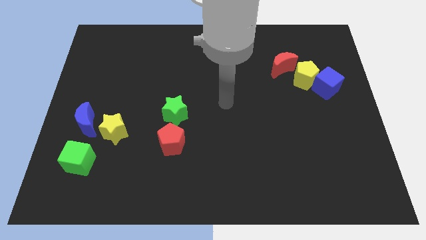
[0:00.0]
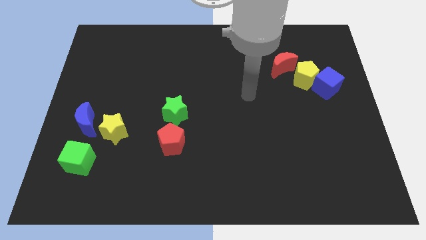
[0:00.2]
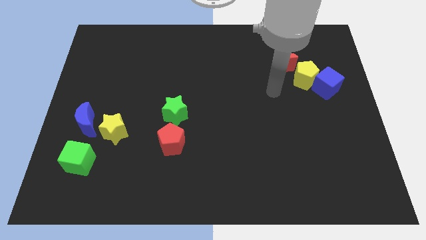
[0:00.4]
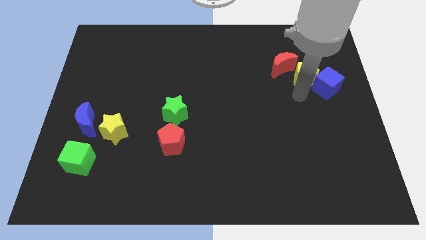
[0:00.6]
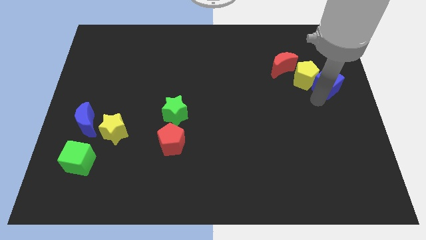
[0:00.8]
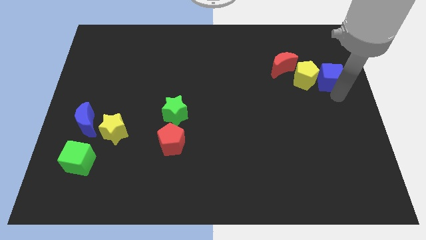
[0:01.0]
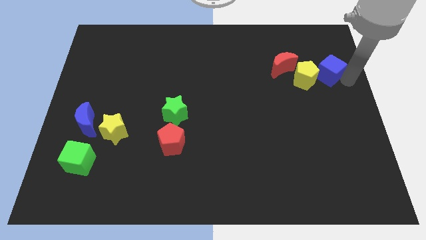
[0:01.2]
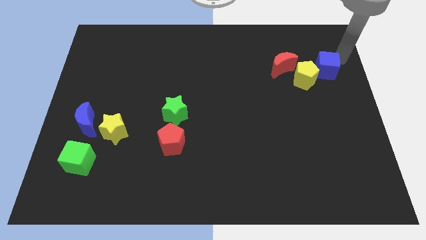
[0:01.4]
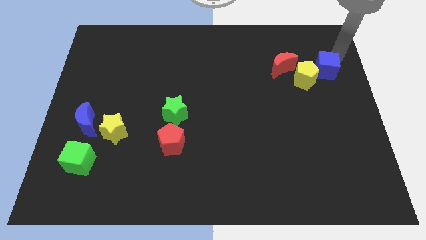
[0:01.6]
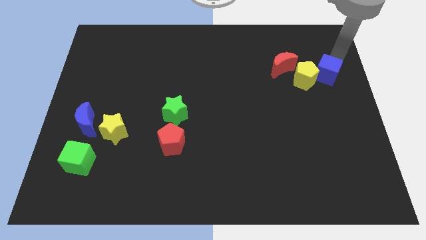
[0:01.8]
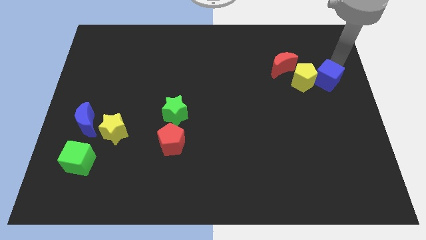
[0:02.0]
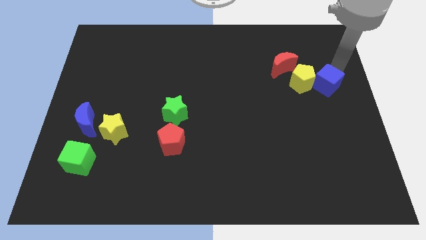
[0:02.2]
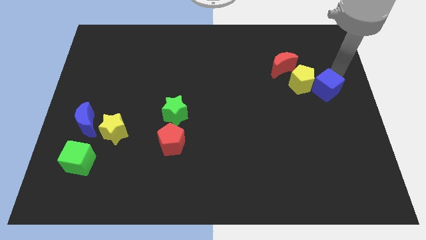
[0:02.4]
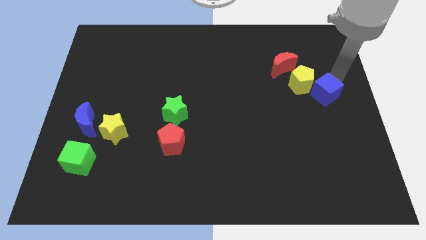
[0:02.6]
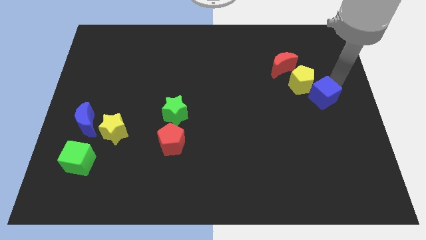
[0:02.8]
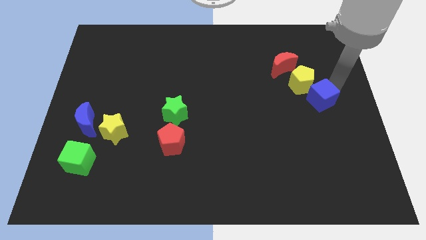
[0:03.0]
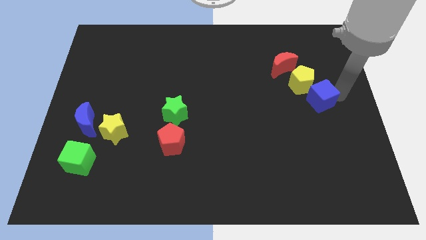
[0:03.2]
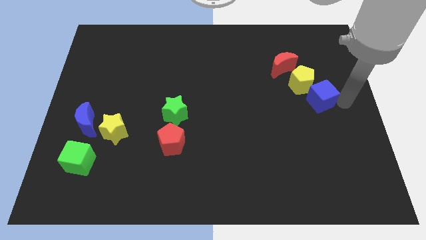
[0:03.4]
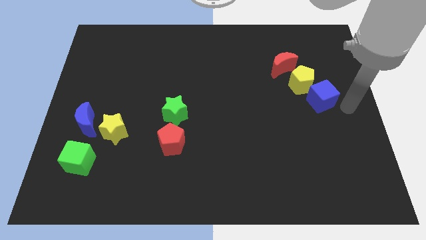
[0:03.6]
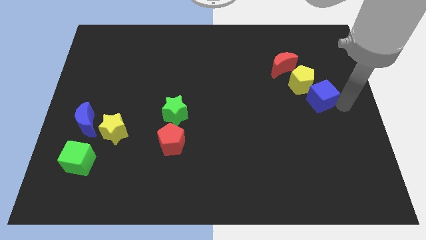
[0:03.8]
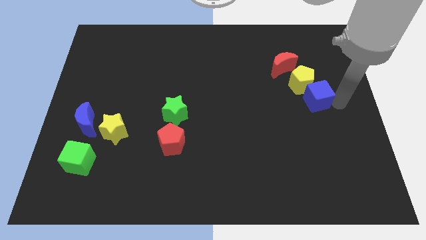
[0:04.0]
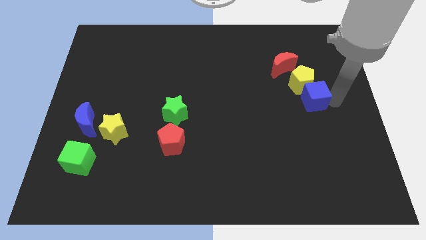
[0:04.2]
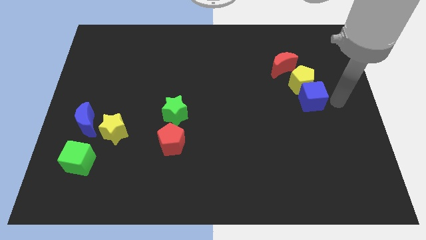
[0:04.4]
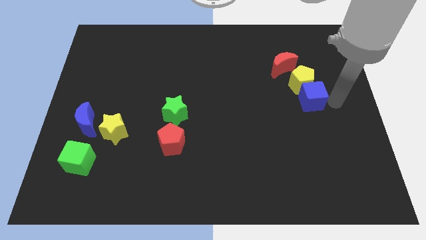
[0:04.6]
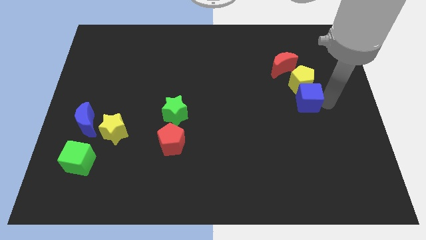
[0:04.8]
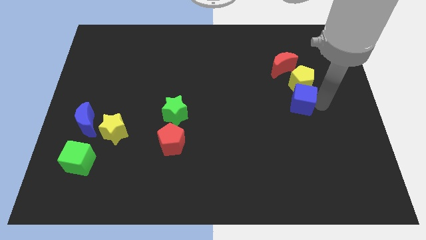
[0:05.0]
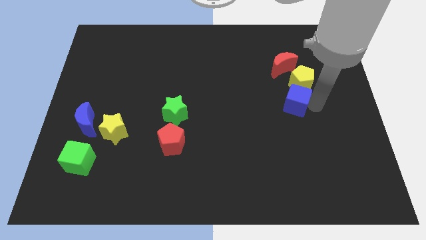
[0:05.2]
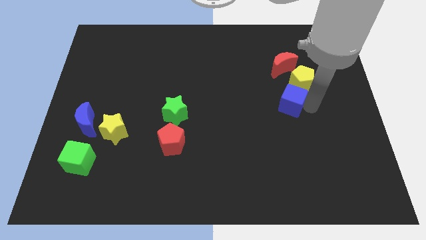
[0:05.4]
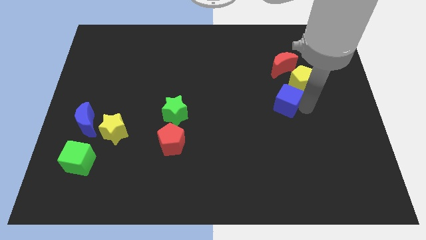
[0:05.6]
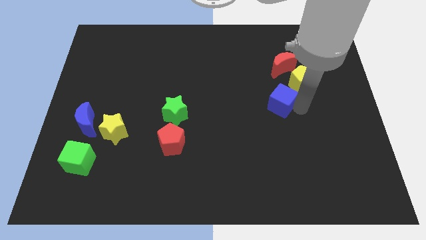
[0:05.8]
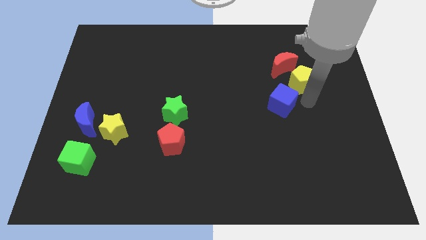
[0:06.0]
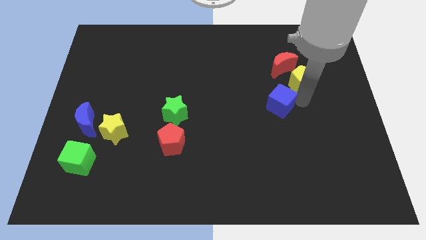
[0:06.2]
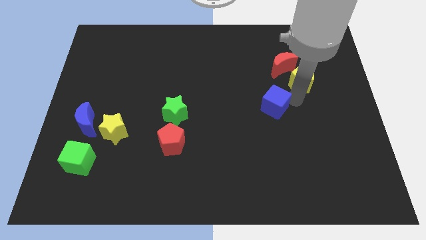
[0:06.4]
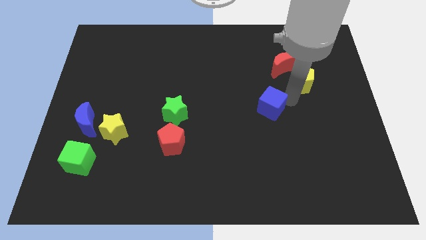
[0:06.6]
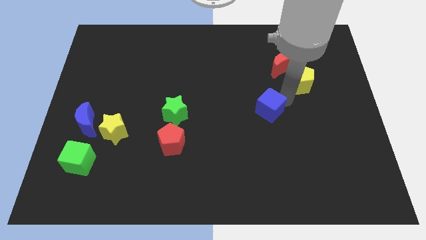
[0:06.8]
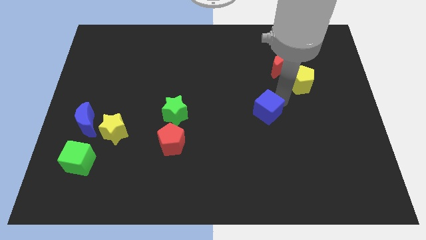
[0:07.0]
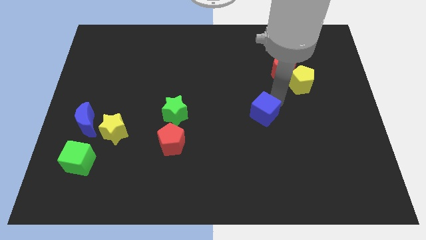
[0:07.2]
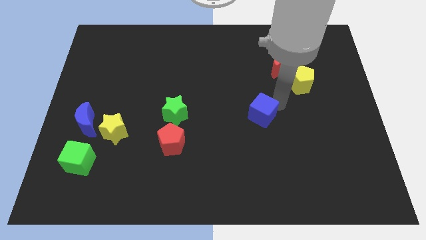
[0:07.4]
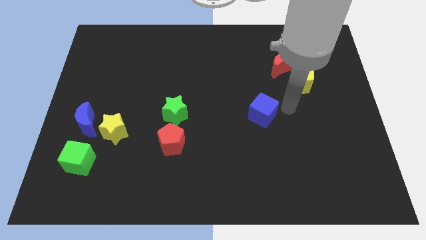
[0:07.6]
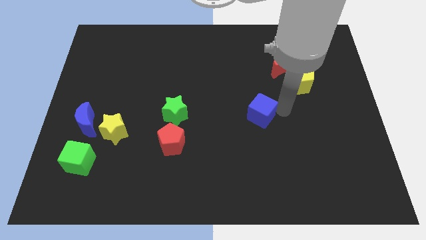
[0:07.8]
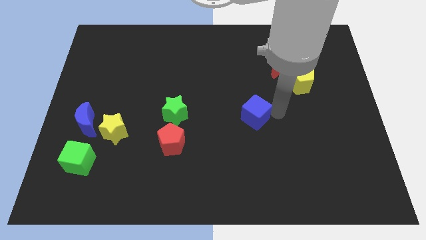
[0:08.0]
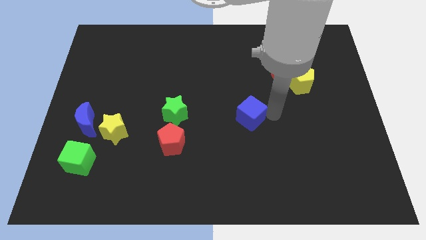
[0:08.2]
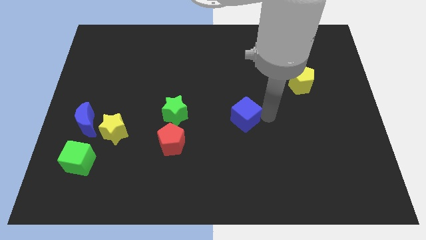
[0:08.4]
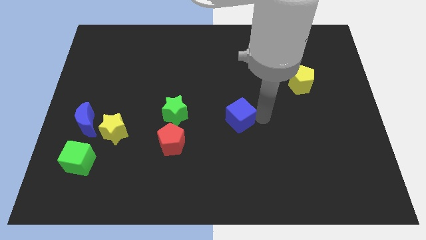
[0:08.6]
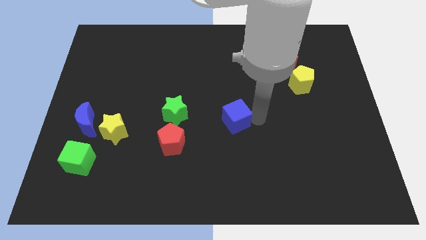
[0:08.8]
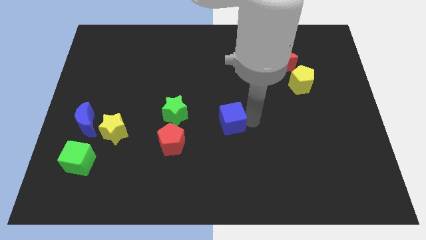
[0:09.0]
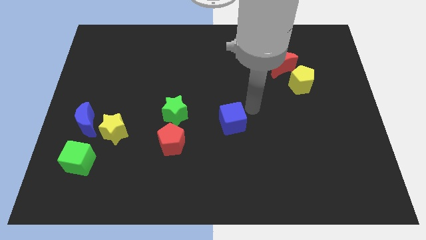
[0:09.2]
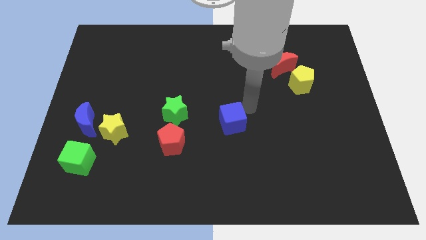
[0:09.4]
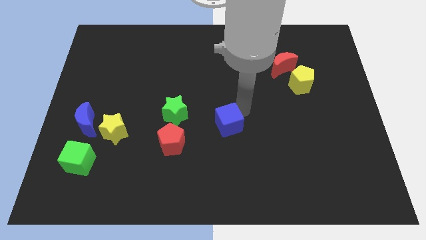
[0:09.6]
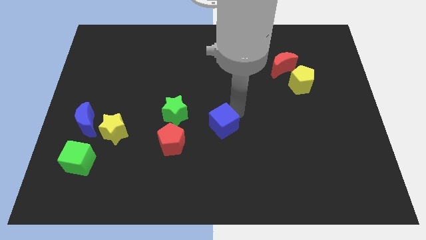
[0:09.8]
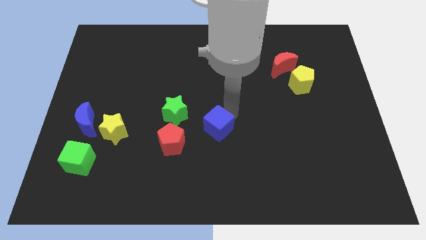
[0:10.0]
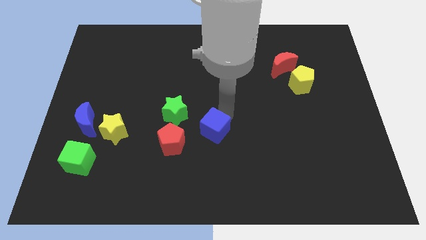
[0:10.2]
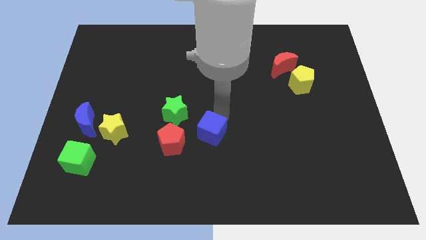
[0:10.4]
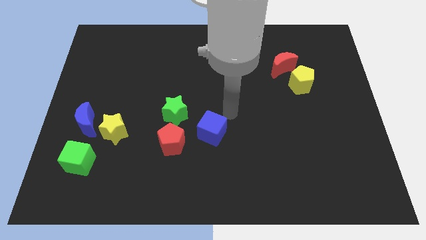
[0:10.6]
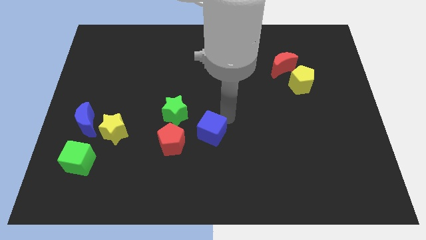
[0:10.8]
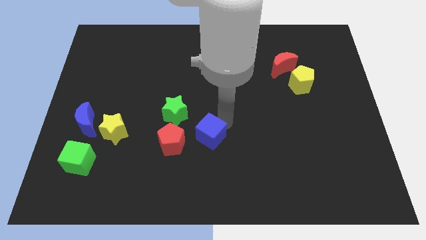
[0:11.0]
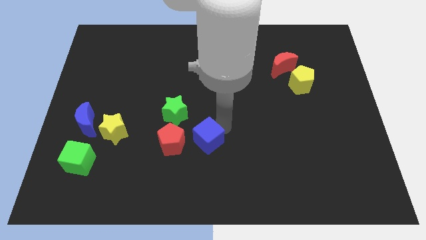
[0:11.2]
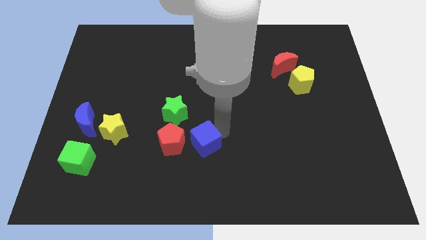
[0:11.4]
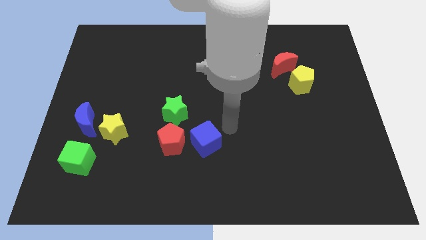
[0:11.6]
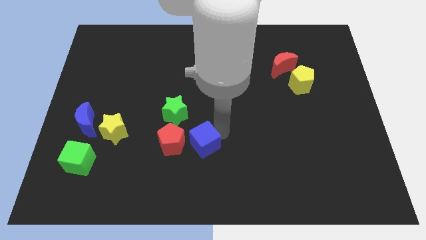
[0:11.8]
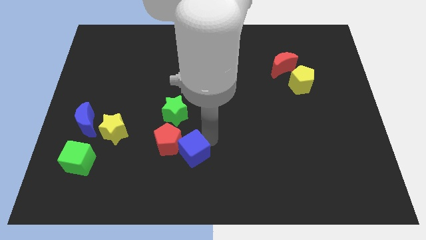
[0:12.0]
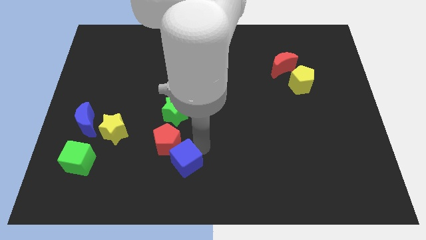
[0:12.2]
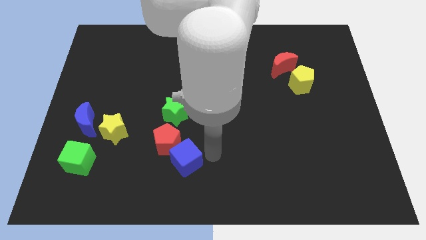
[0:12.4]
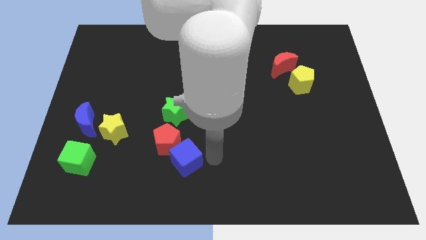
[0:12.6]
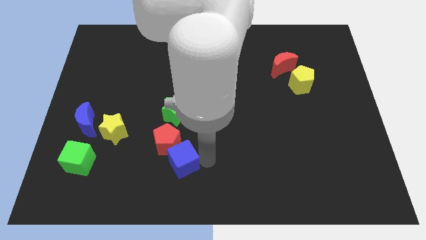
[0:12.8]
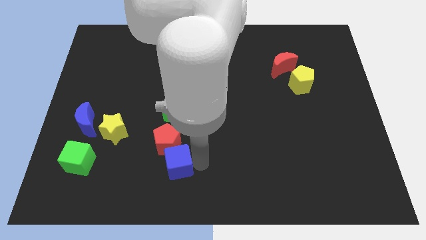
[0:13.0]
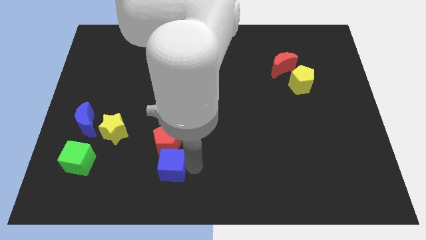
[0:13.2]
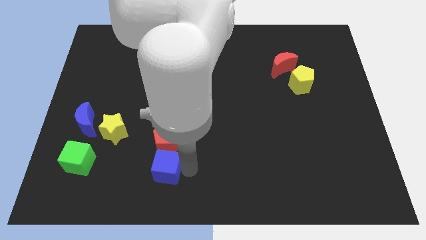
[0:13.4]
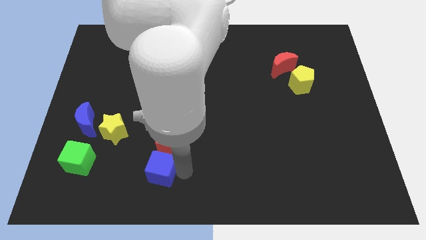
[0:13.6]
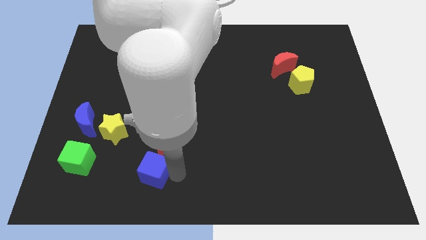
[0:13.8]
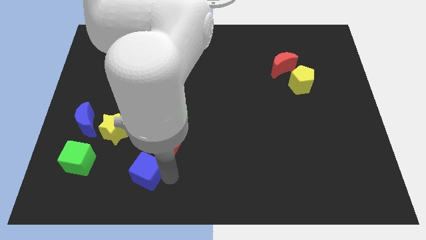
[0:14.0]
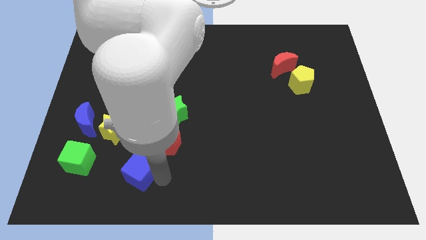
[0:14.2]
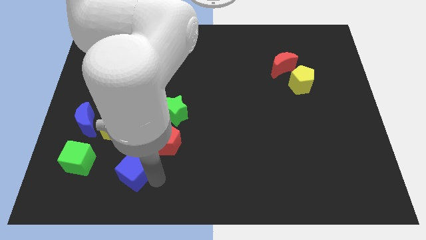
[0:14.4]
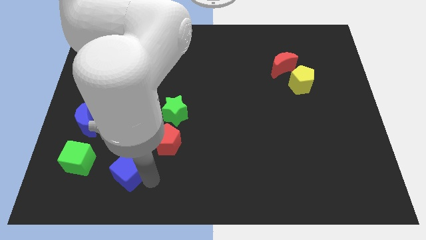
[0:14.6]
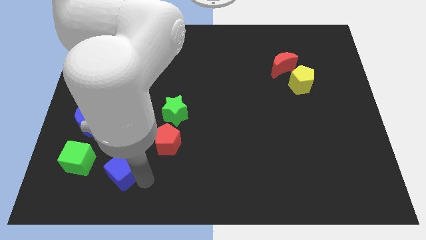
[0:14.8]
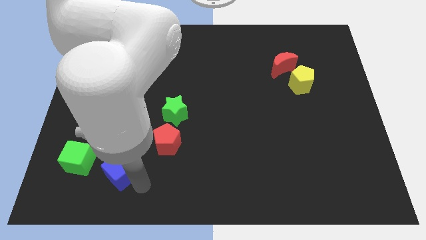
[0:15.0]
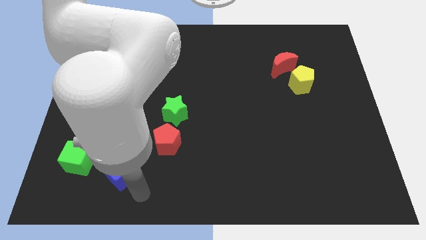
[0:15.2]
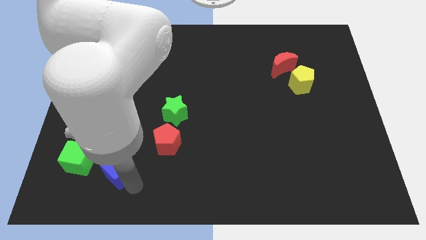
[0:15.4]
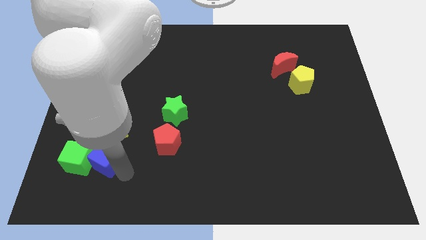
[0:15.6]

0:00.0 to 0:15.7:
move the blue cube to the green cube
